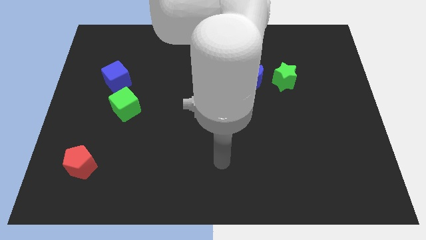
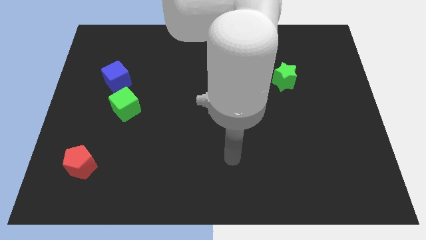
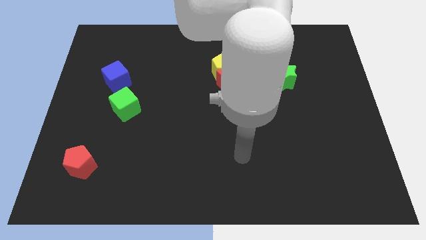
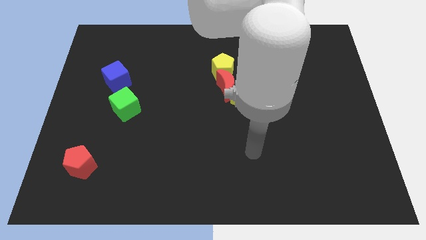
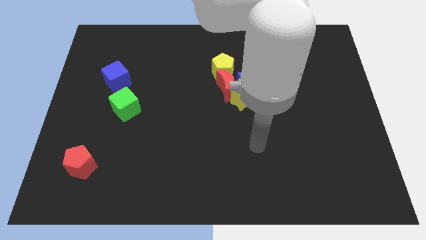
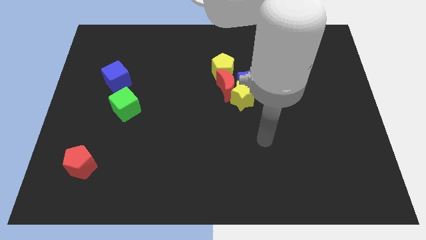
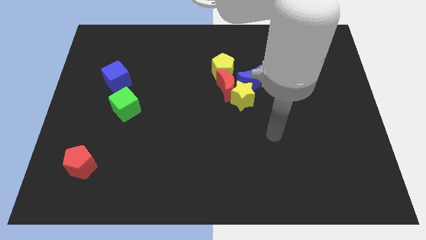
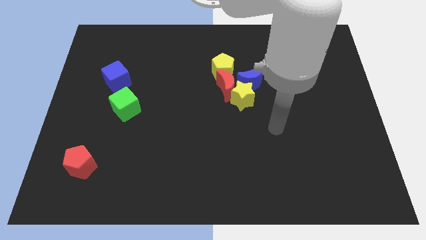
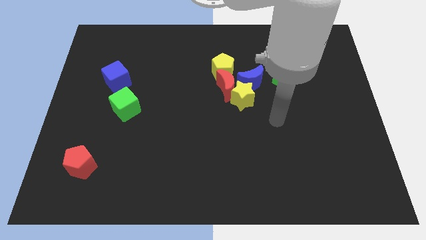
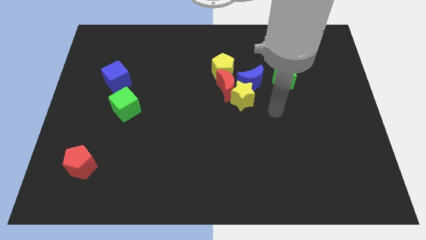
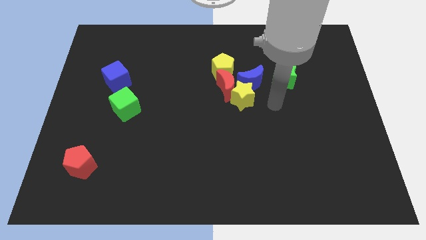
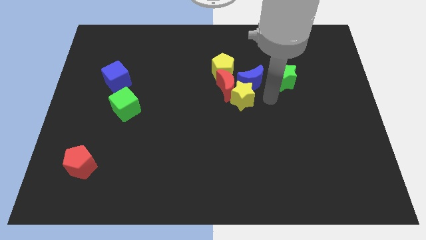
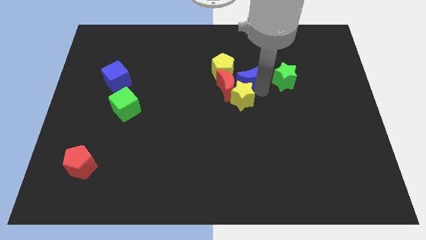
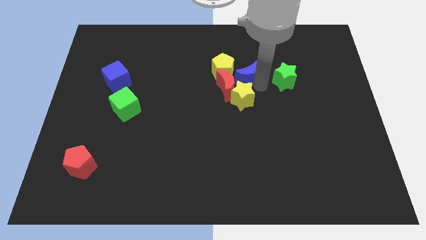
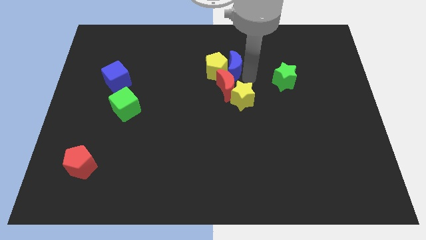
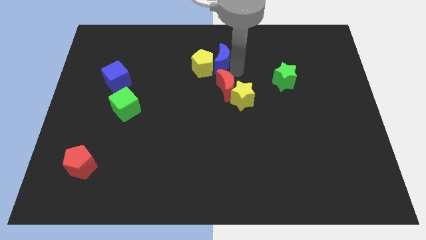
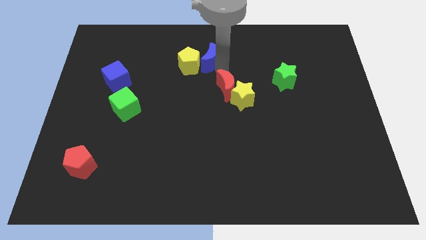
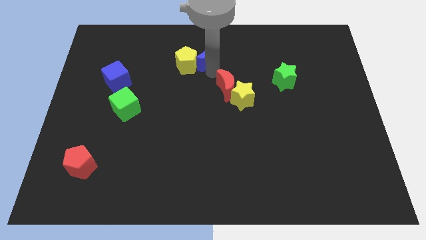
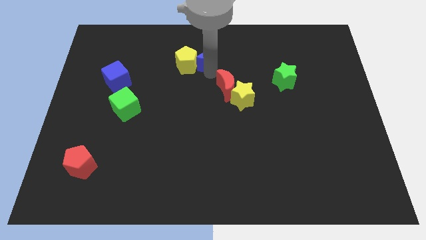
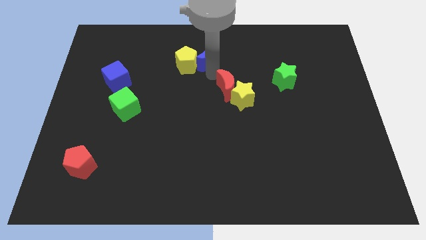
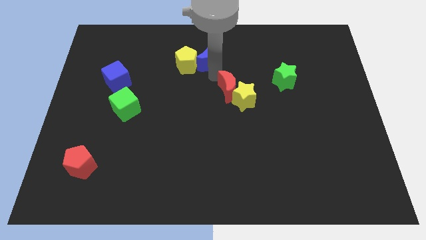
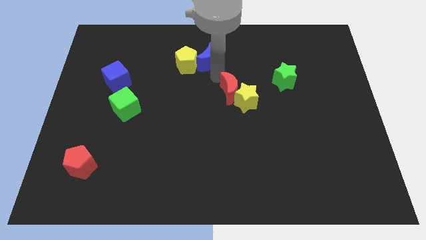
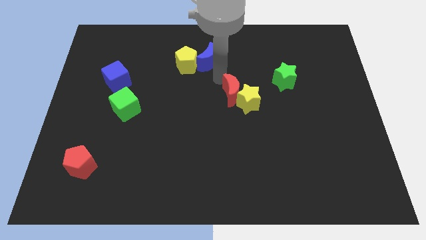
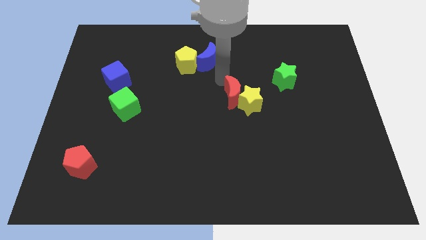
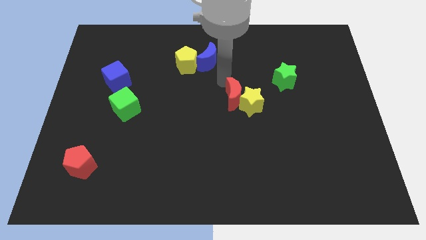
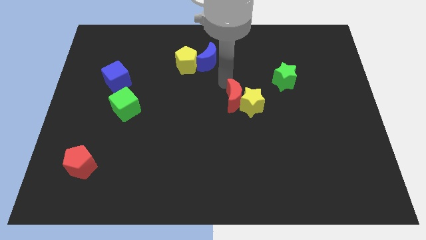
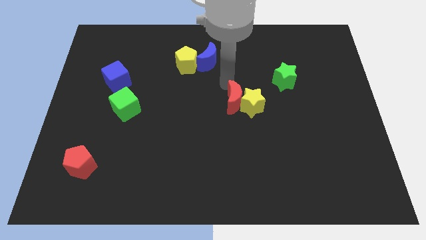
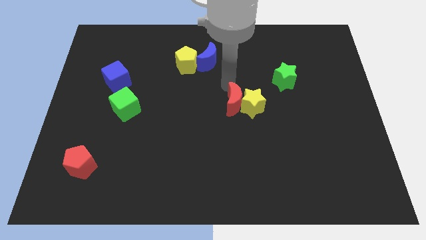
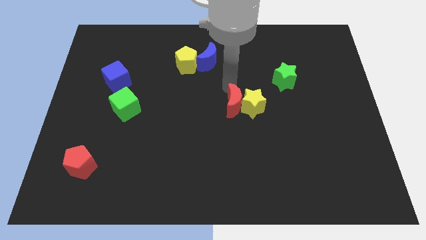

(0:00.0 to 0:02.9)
move the red moon away from the group

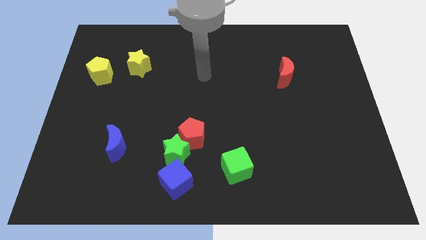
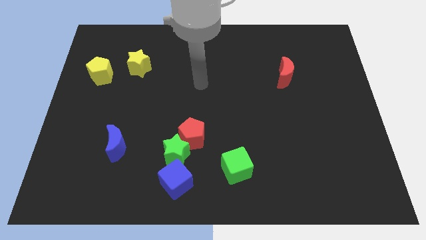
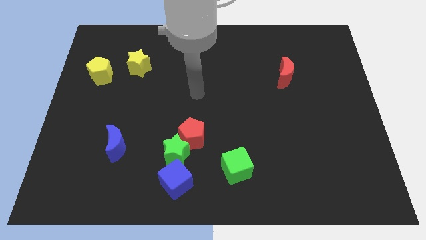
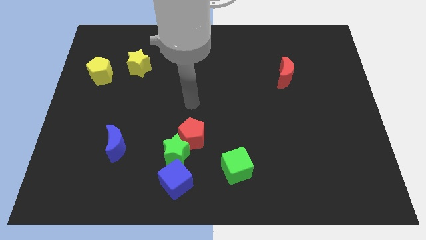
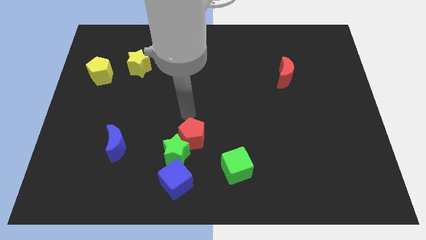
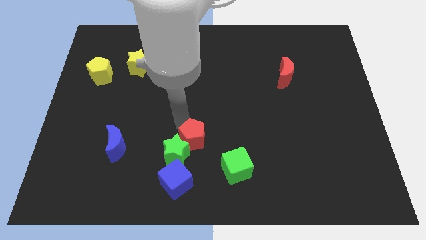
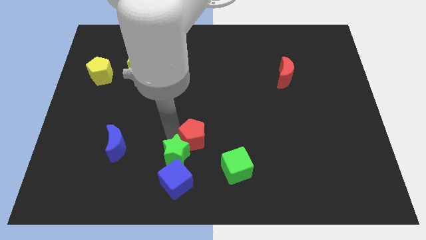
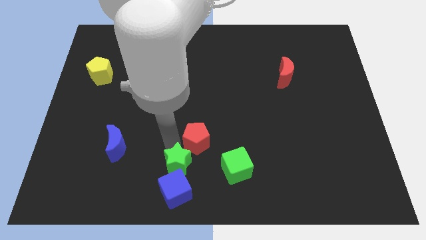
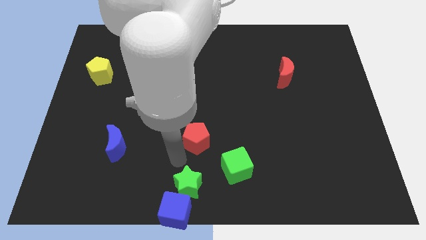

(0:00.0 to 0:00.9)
separate the red pentagon from the green star

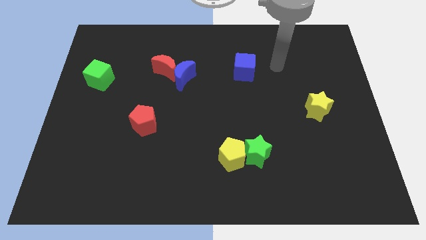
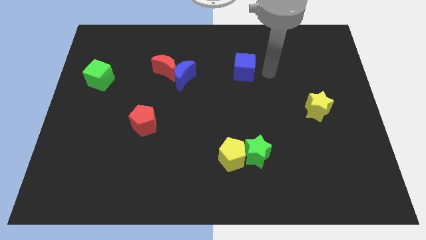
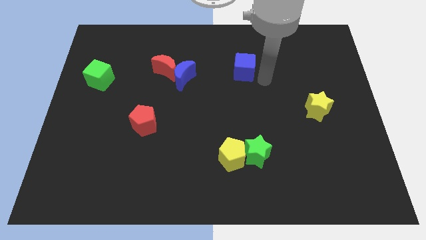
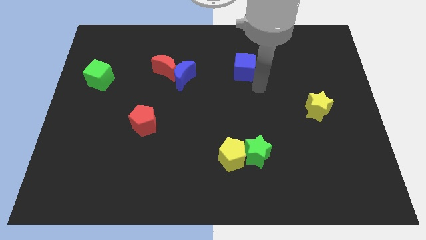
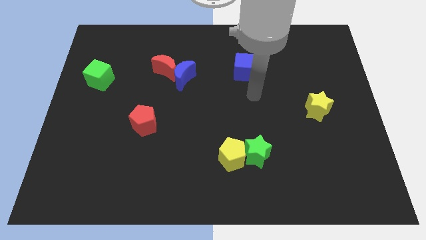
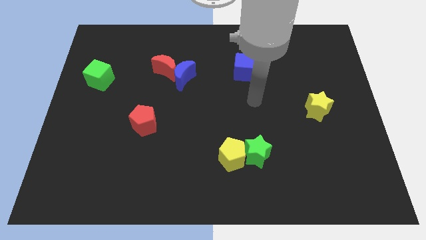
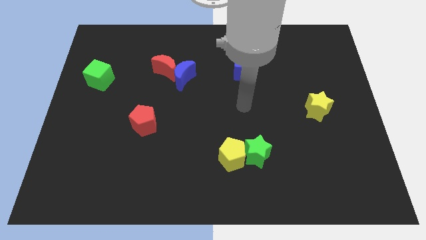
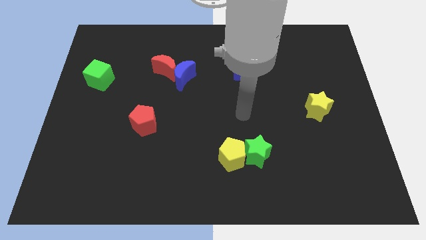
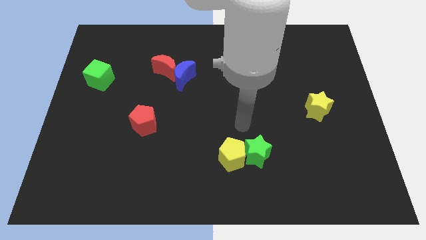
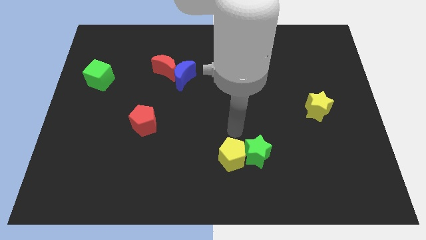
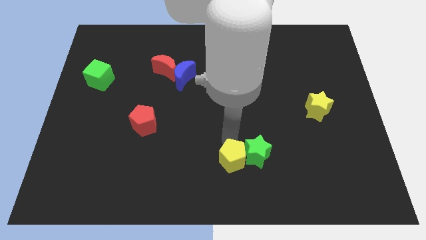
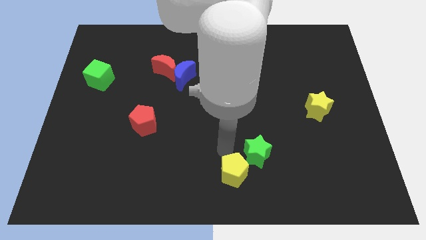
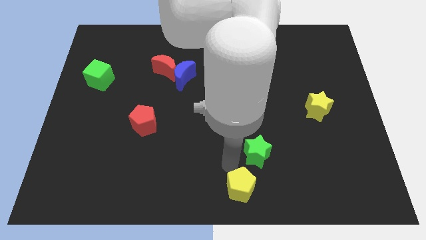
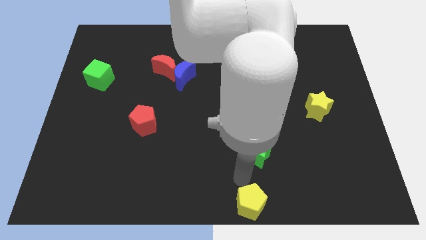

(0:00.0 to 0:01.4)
move the green star away from the yellow pentagon

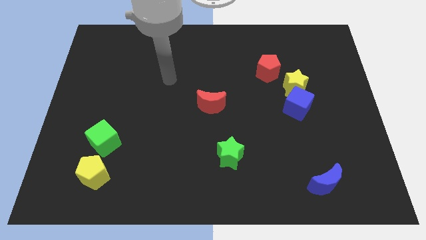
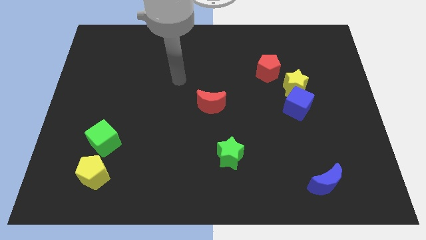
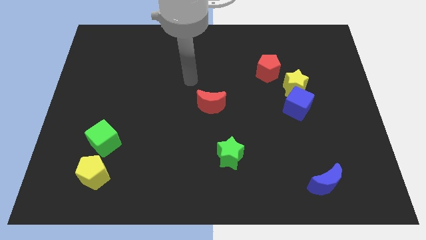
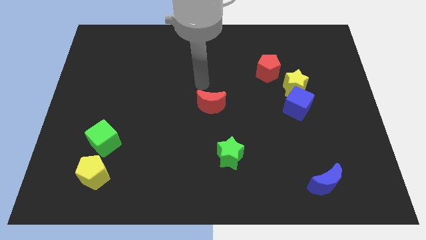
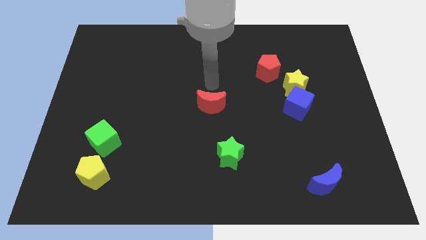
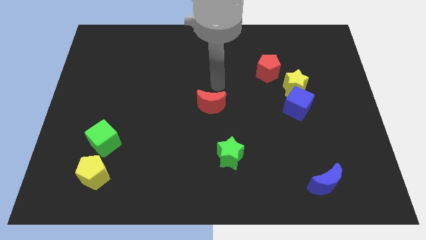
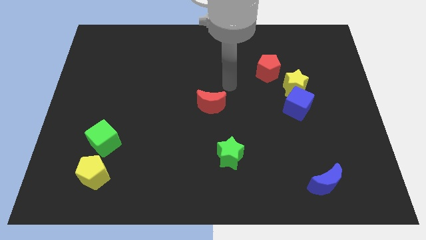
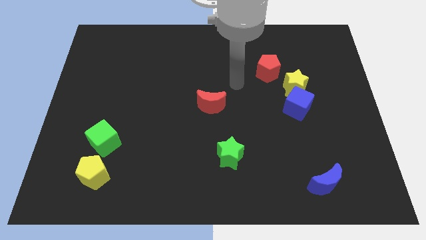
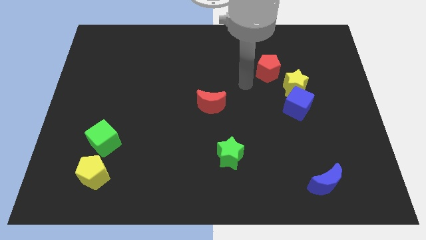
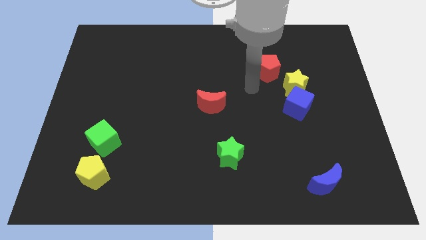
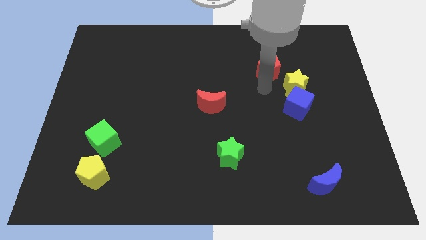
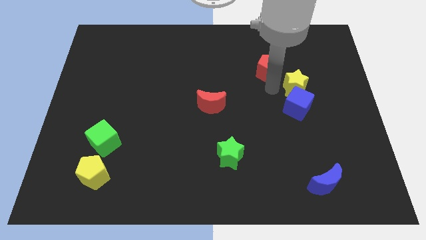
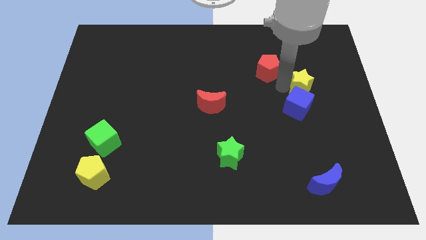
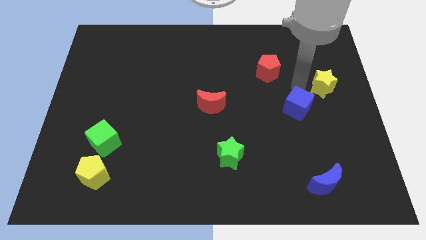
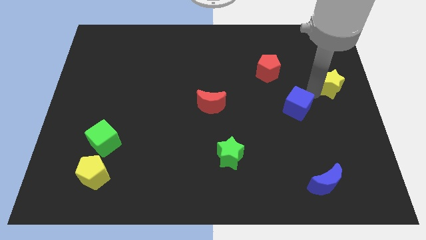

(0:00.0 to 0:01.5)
separate the blue cube from the yellow star

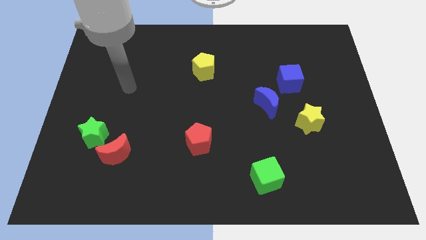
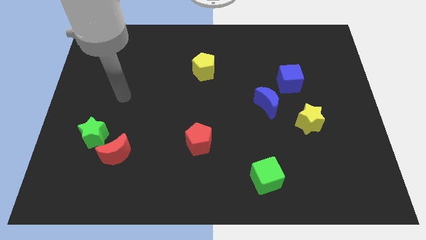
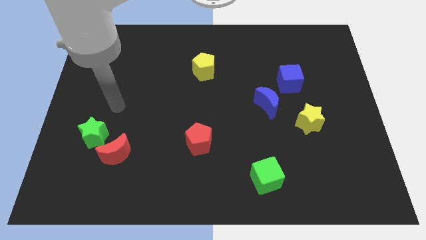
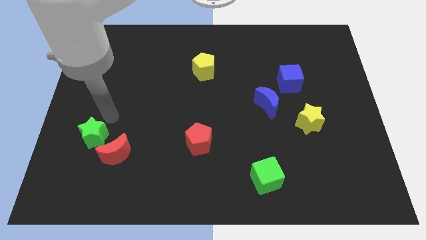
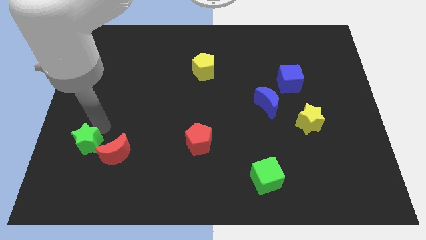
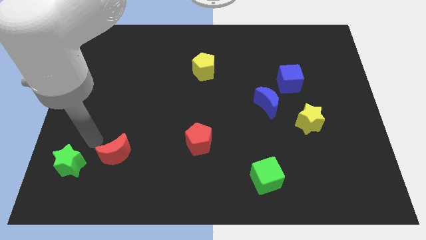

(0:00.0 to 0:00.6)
pull the red moon apart from the green star

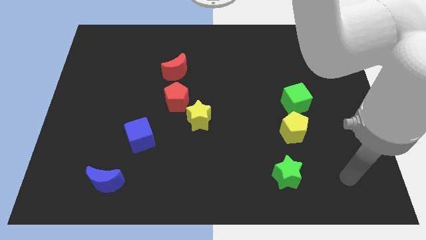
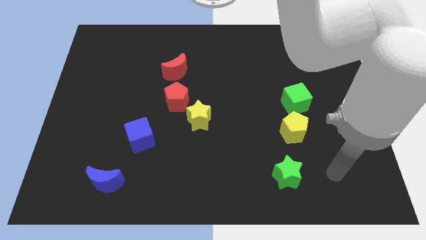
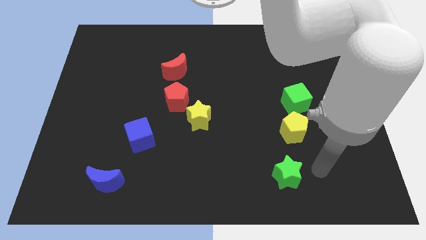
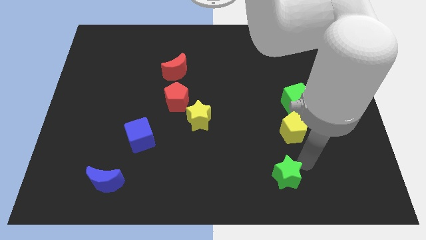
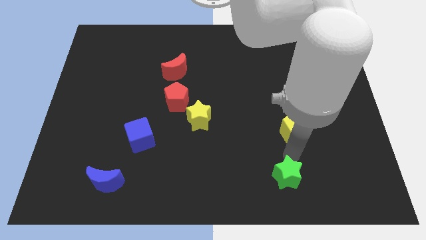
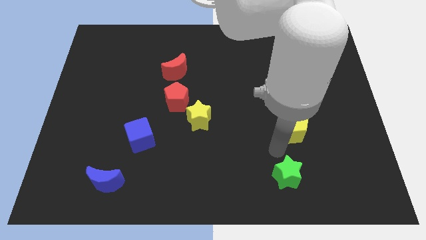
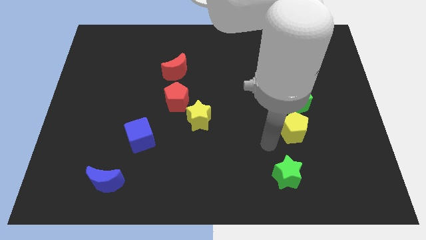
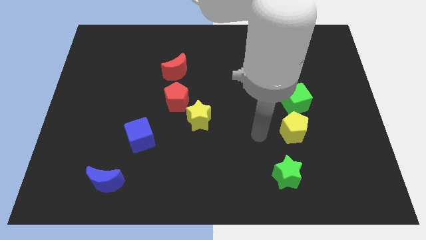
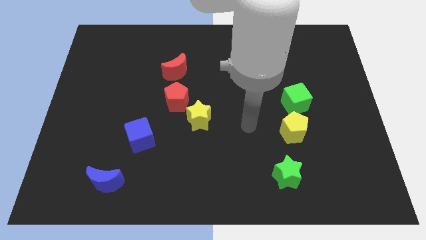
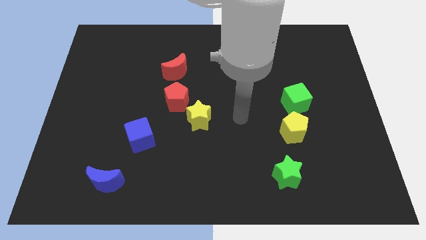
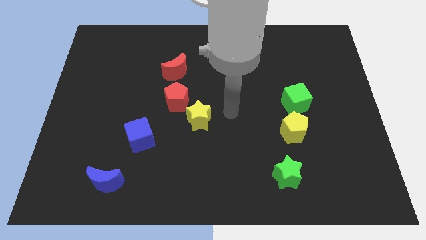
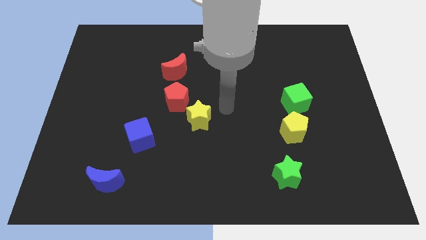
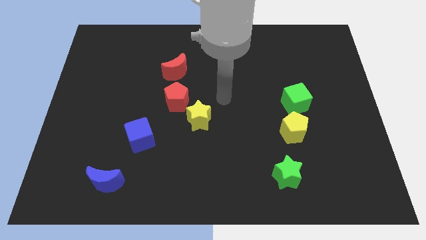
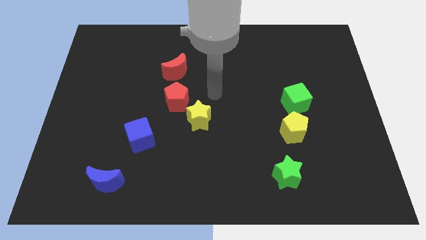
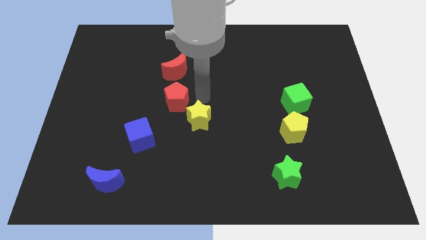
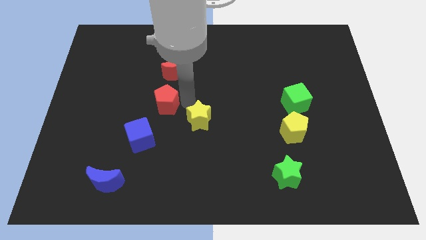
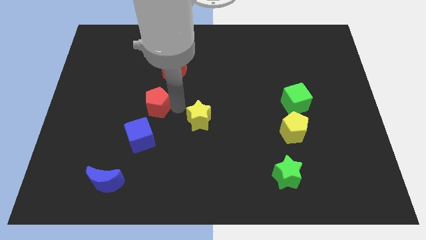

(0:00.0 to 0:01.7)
move the yellow star away from the red pentagon

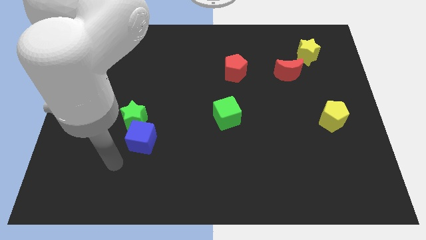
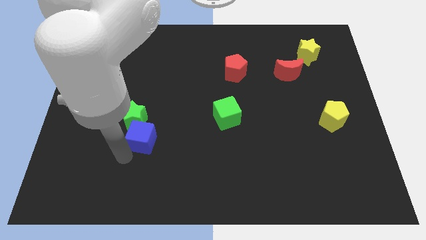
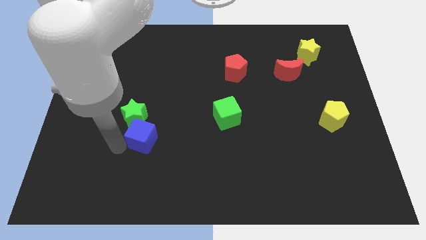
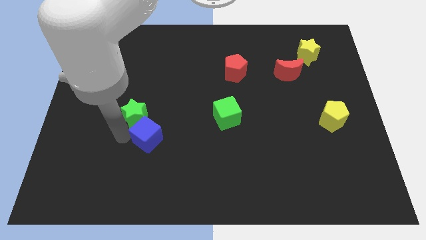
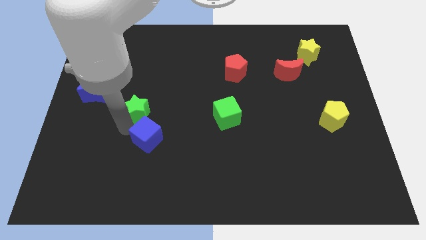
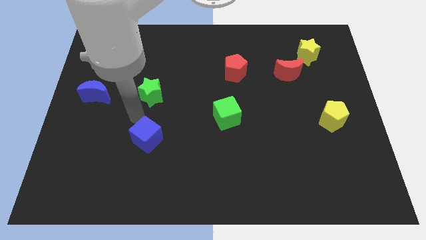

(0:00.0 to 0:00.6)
pull the blue cube apart from the green star
